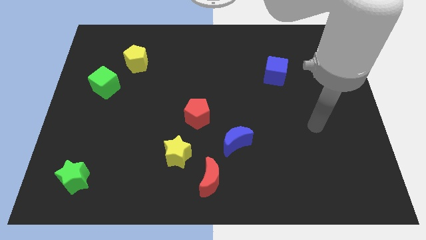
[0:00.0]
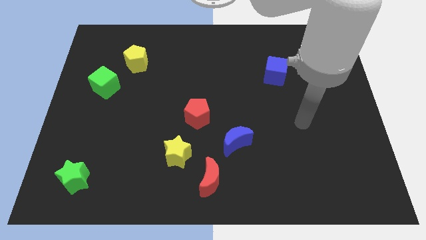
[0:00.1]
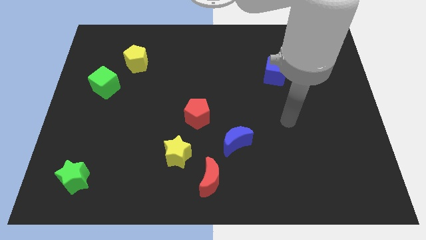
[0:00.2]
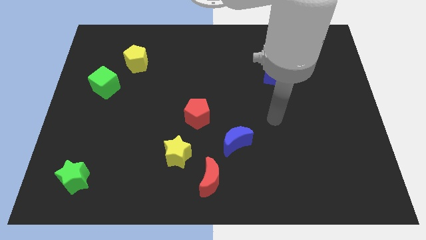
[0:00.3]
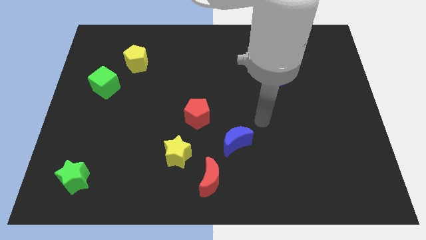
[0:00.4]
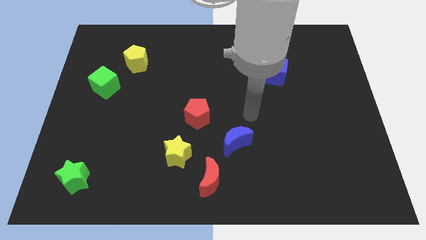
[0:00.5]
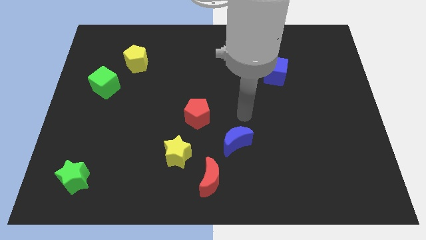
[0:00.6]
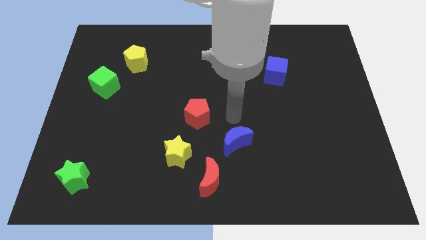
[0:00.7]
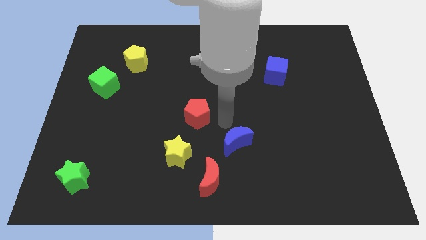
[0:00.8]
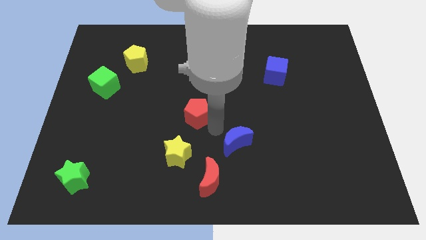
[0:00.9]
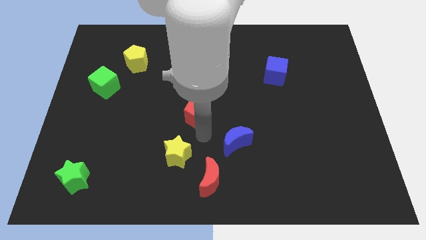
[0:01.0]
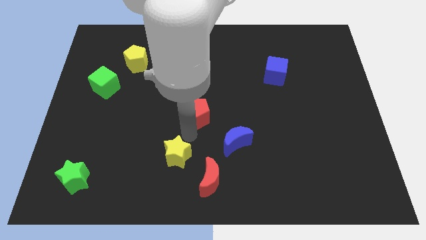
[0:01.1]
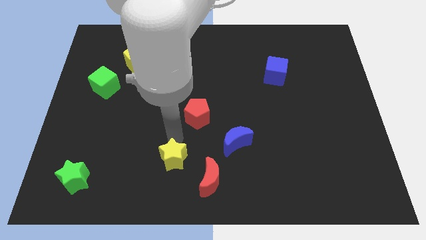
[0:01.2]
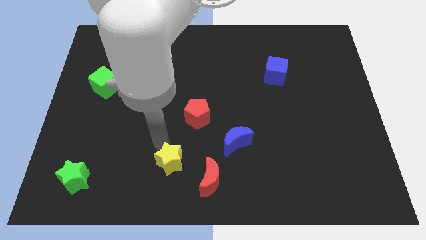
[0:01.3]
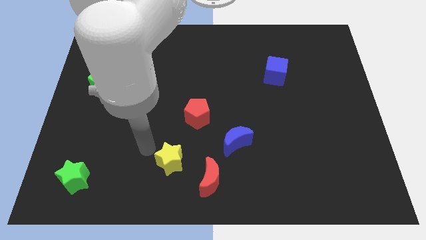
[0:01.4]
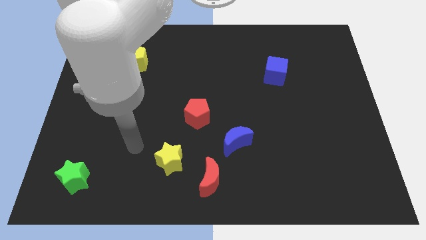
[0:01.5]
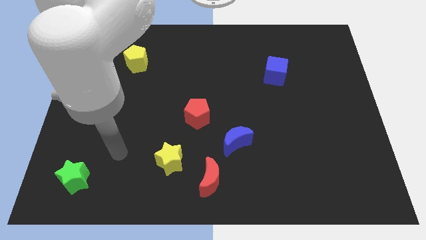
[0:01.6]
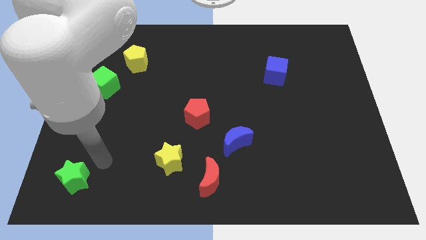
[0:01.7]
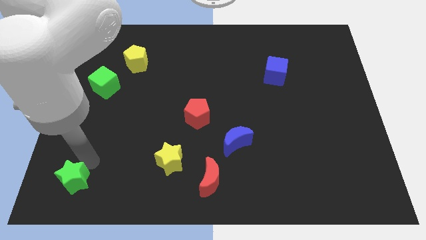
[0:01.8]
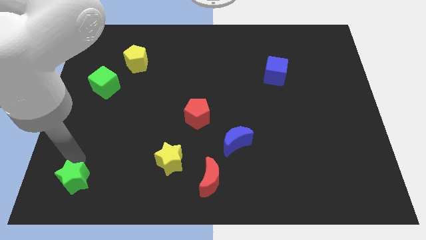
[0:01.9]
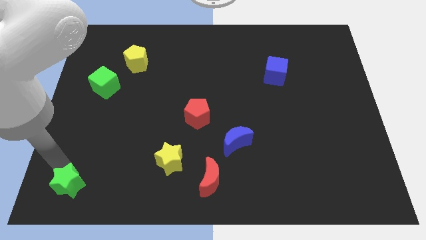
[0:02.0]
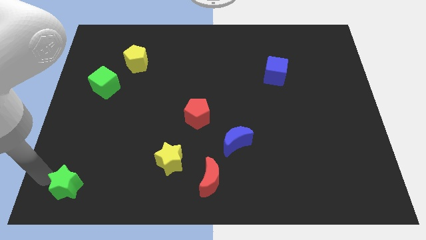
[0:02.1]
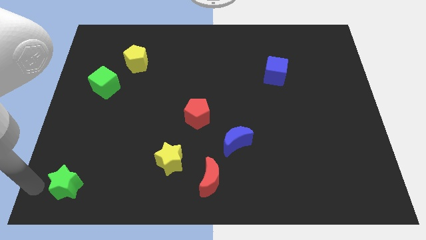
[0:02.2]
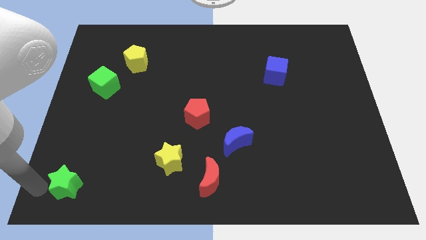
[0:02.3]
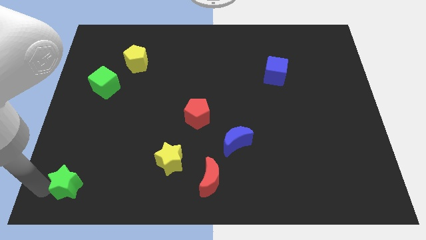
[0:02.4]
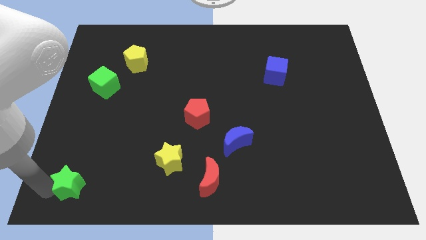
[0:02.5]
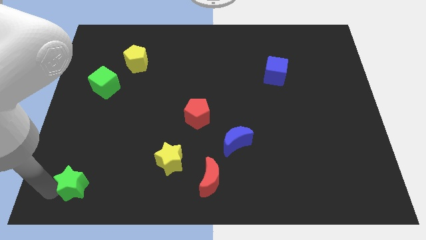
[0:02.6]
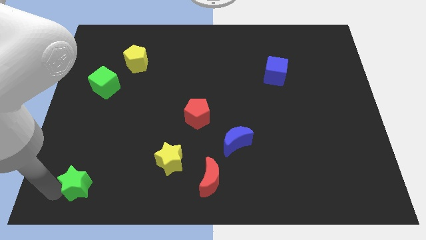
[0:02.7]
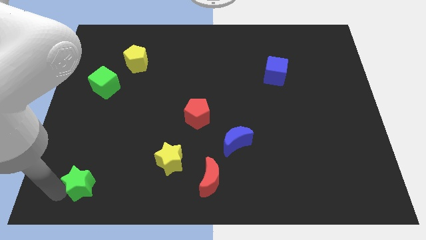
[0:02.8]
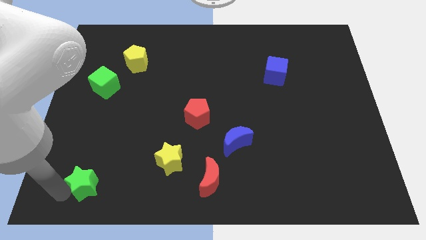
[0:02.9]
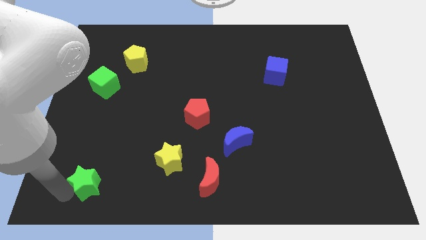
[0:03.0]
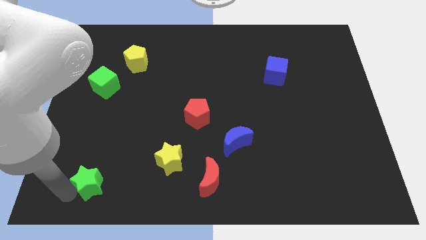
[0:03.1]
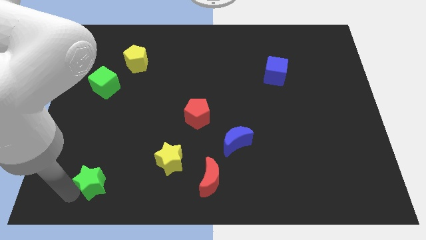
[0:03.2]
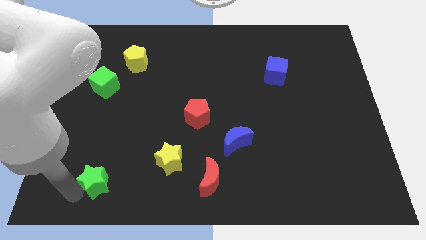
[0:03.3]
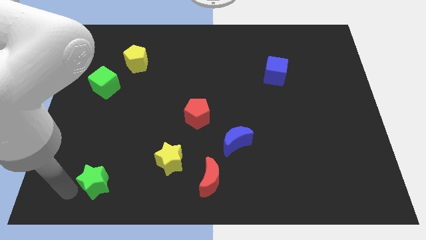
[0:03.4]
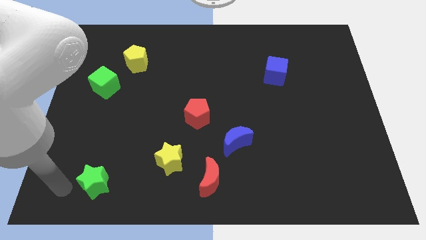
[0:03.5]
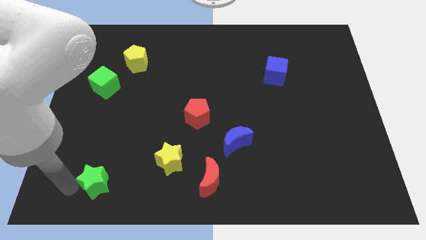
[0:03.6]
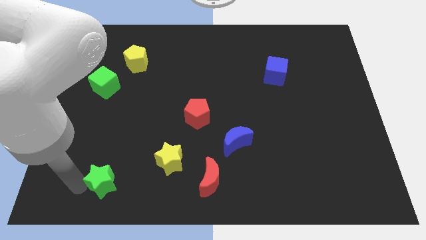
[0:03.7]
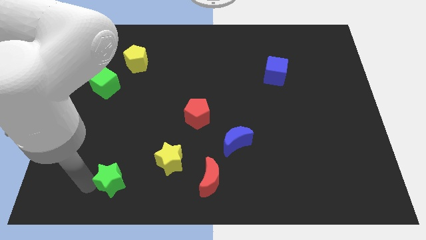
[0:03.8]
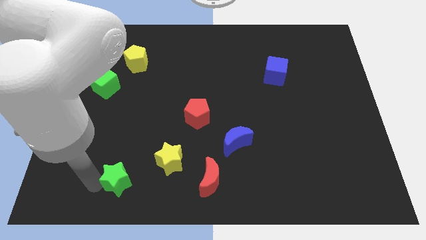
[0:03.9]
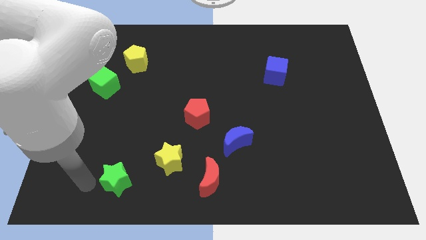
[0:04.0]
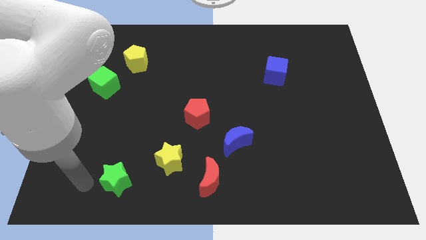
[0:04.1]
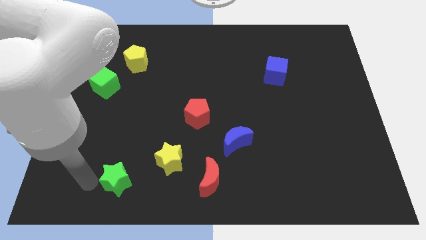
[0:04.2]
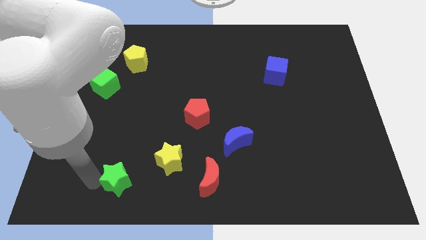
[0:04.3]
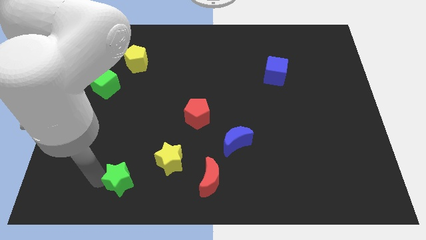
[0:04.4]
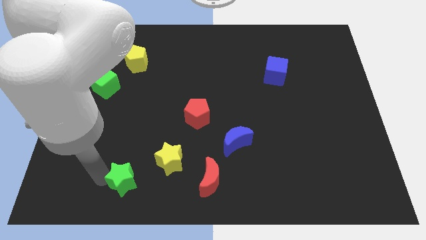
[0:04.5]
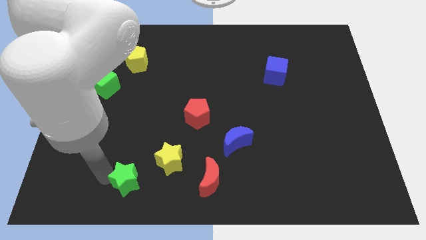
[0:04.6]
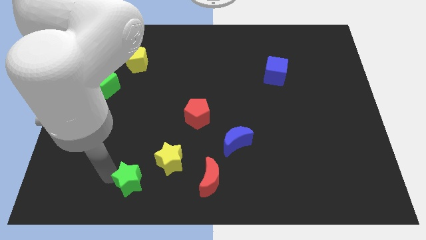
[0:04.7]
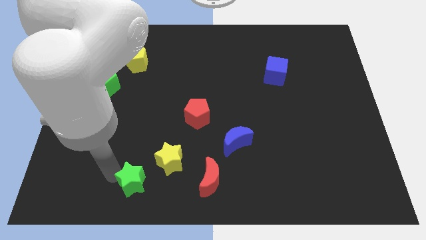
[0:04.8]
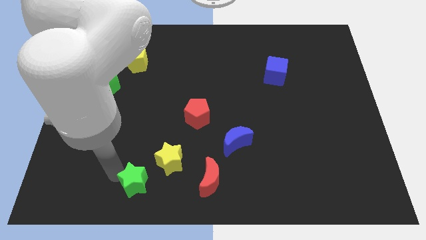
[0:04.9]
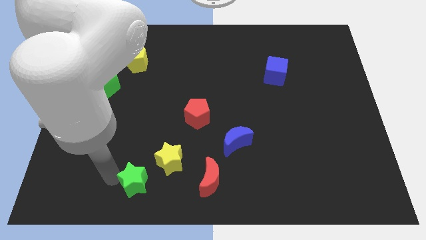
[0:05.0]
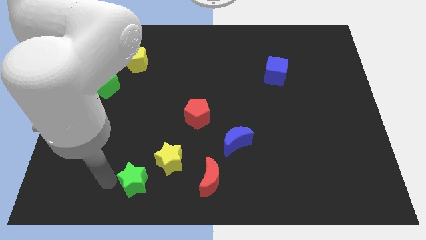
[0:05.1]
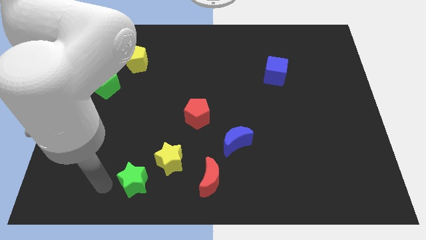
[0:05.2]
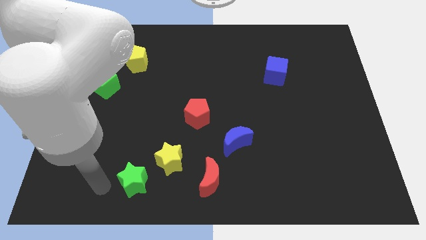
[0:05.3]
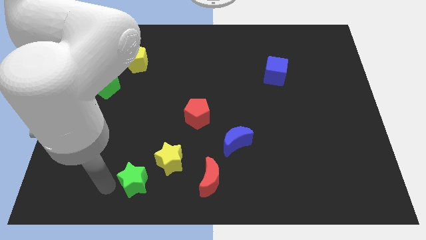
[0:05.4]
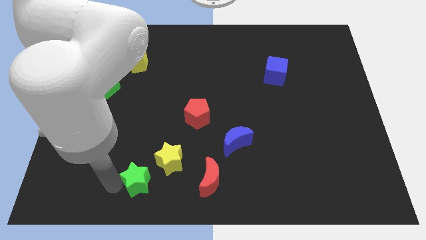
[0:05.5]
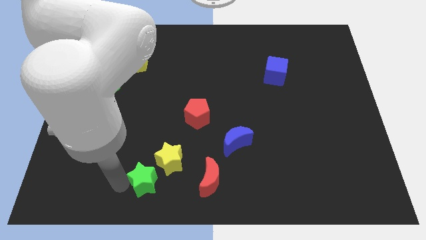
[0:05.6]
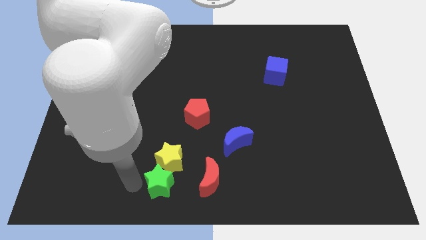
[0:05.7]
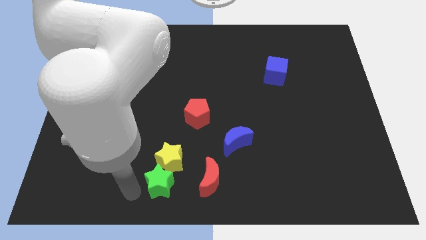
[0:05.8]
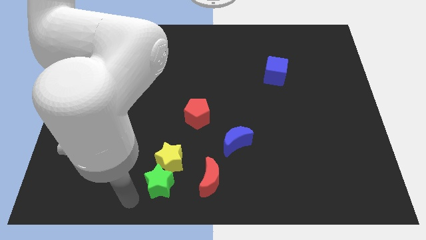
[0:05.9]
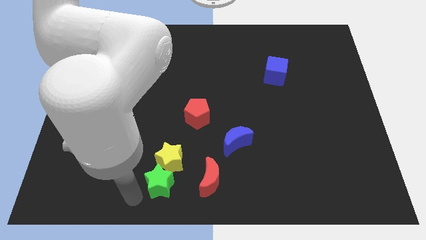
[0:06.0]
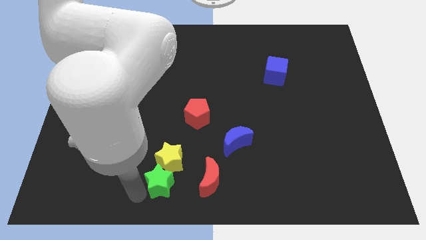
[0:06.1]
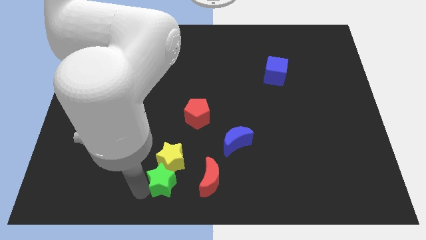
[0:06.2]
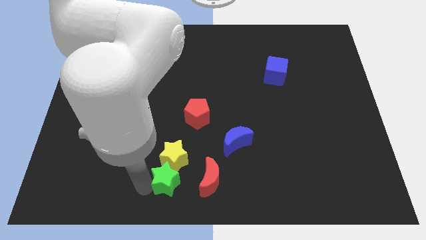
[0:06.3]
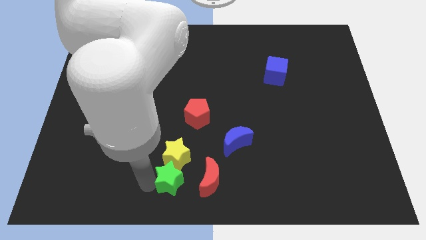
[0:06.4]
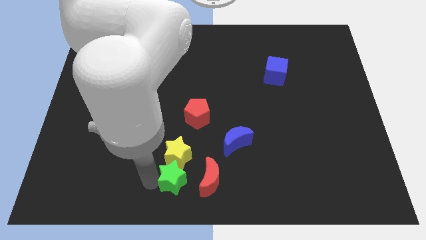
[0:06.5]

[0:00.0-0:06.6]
push the green star right

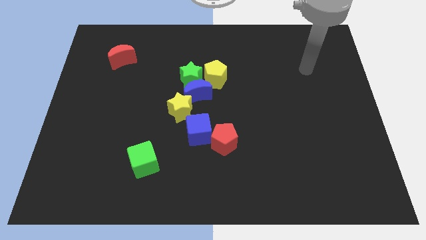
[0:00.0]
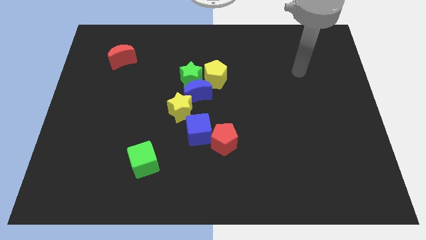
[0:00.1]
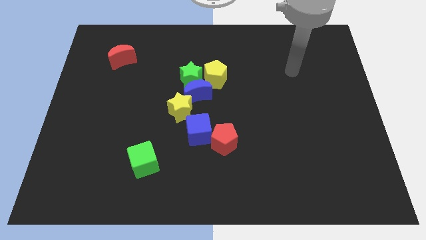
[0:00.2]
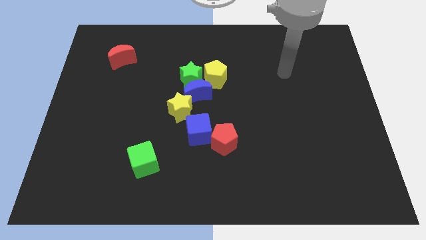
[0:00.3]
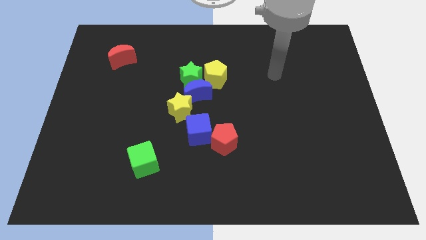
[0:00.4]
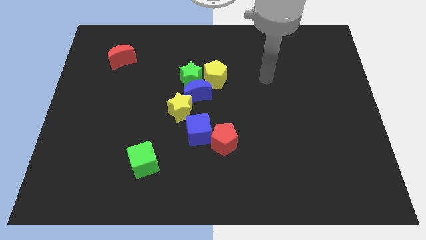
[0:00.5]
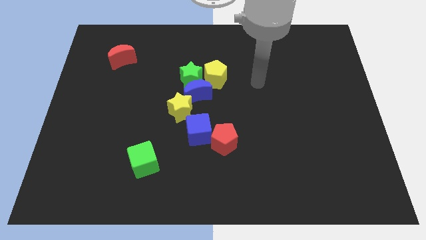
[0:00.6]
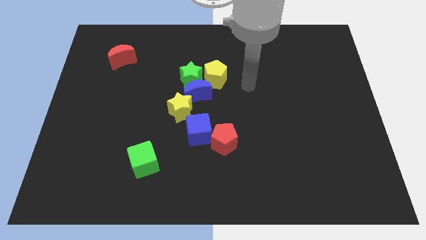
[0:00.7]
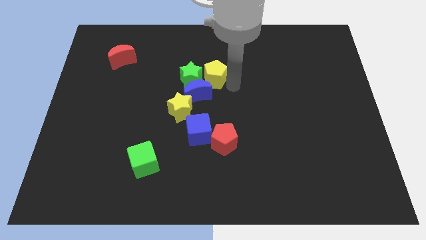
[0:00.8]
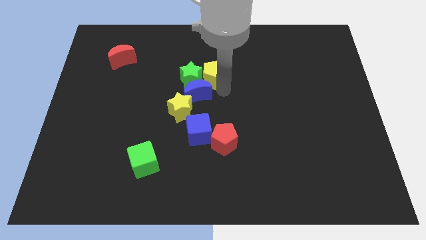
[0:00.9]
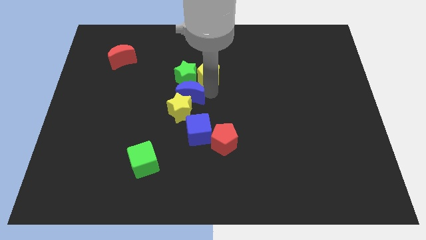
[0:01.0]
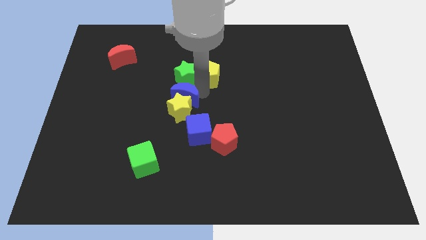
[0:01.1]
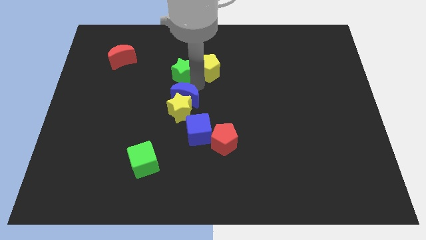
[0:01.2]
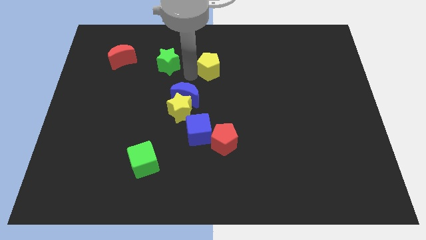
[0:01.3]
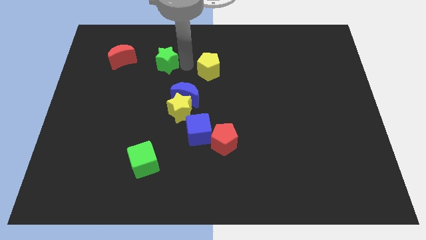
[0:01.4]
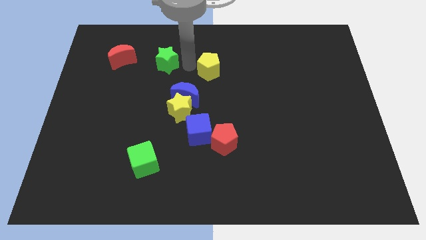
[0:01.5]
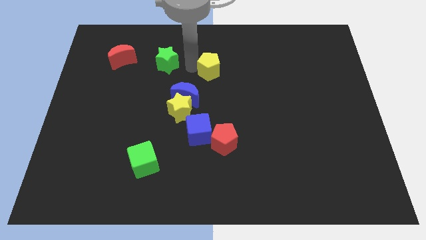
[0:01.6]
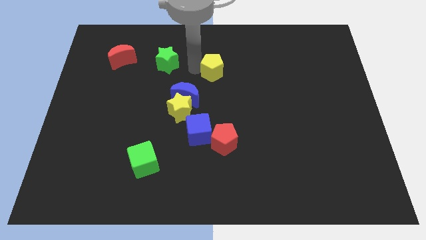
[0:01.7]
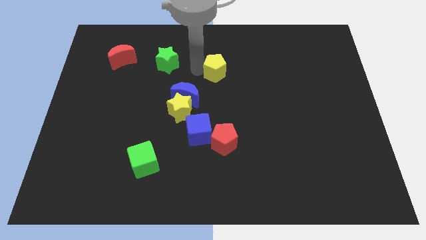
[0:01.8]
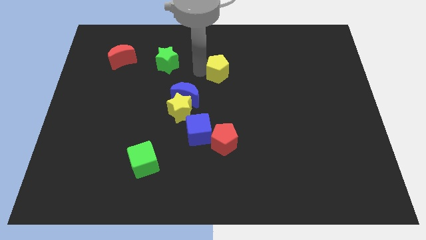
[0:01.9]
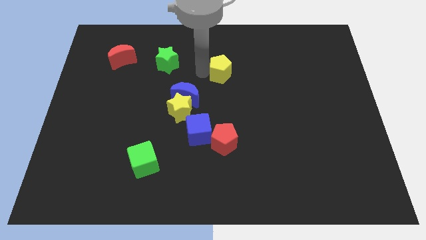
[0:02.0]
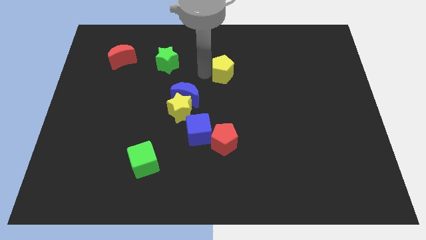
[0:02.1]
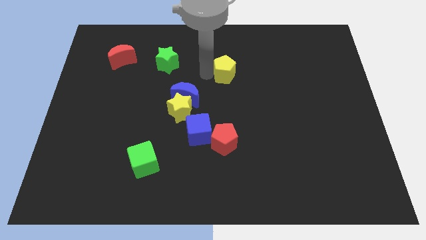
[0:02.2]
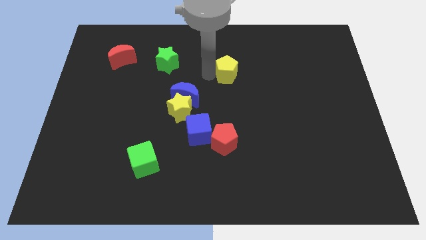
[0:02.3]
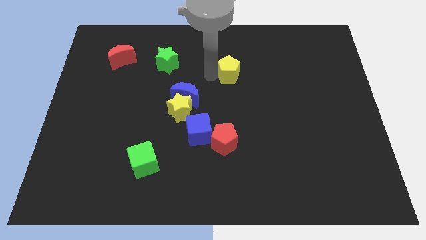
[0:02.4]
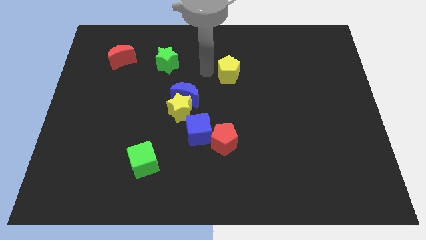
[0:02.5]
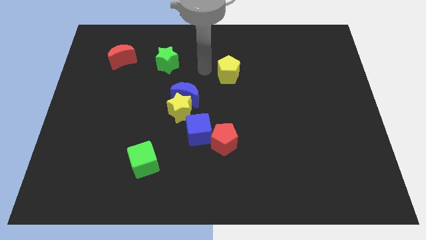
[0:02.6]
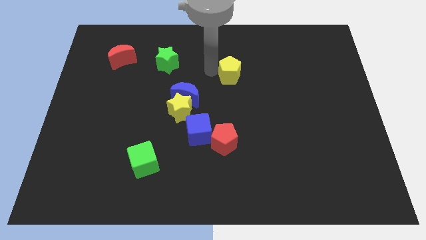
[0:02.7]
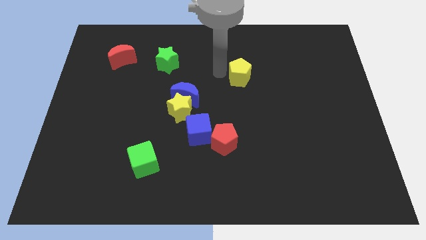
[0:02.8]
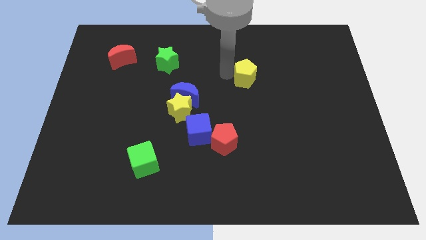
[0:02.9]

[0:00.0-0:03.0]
push the yellow pentagon a little bit right
